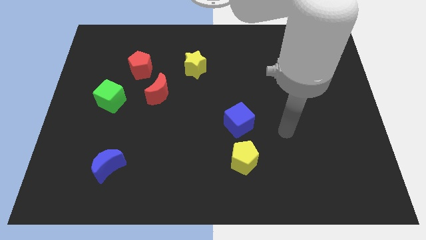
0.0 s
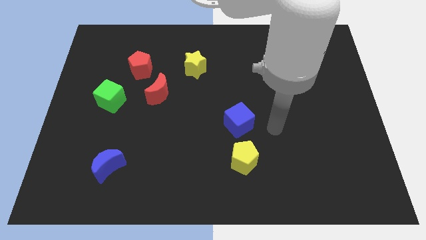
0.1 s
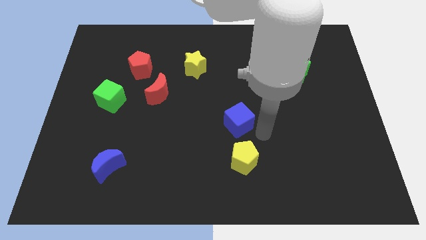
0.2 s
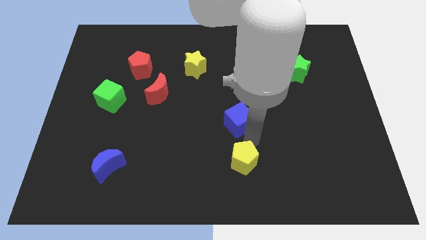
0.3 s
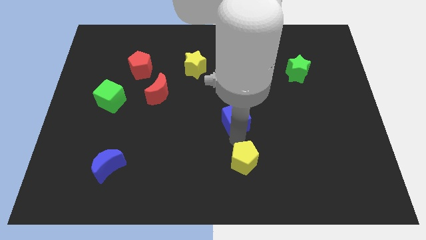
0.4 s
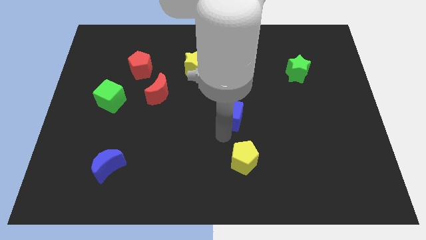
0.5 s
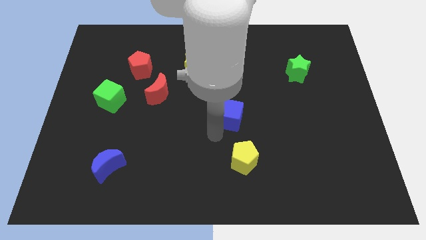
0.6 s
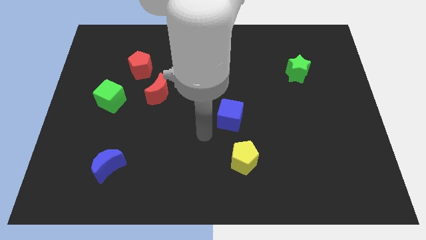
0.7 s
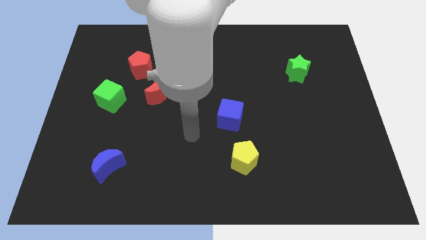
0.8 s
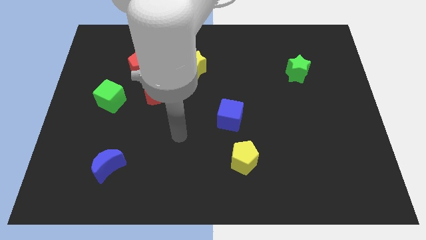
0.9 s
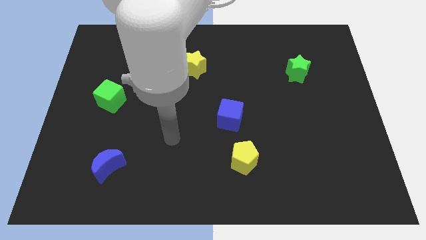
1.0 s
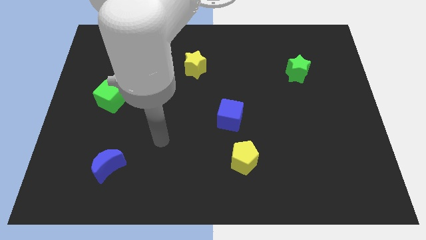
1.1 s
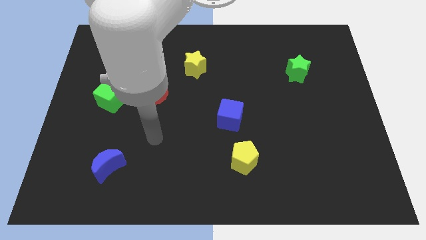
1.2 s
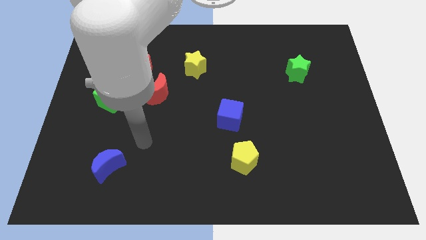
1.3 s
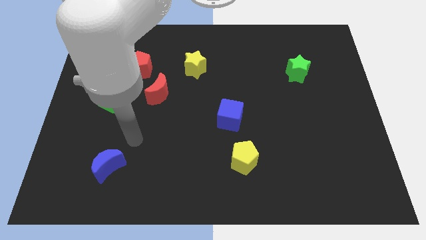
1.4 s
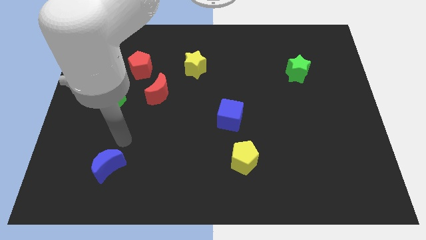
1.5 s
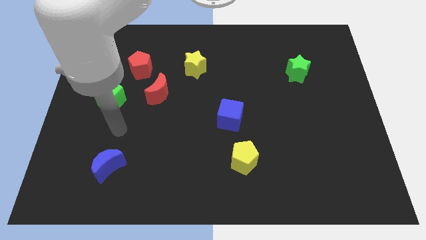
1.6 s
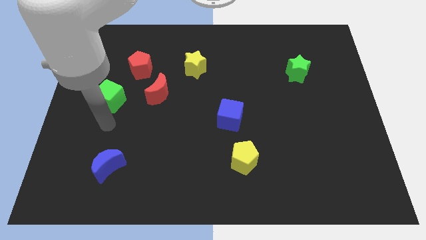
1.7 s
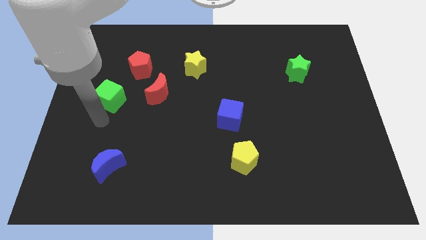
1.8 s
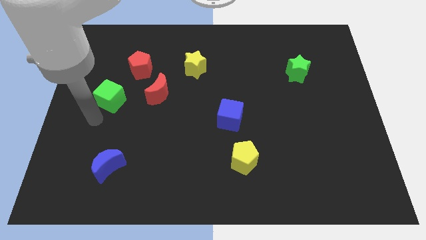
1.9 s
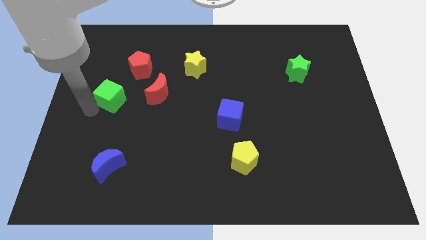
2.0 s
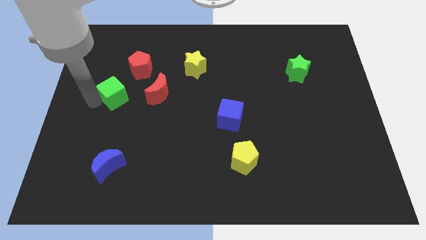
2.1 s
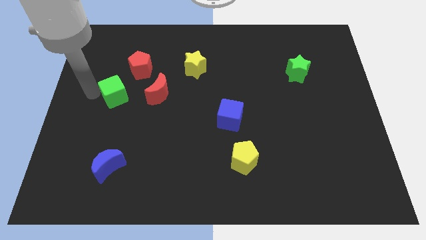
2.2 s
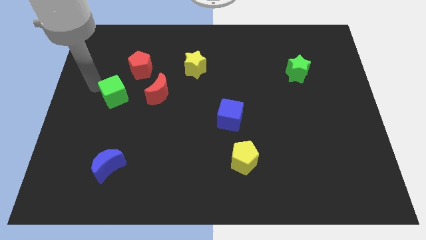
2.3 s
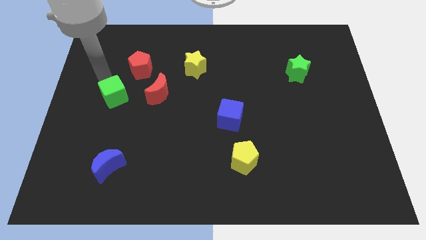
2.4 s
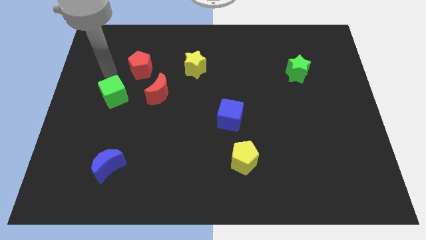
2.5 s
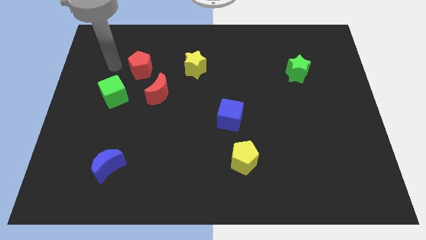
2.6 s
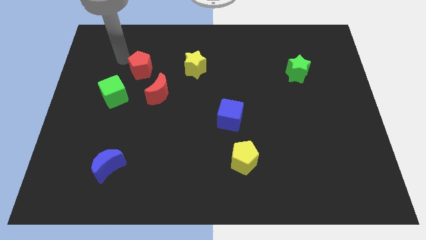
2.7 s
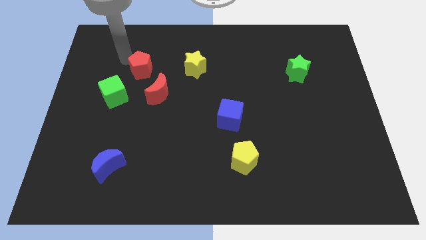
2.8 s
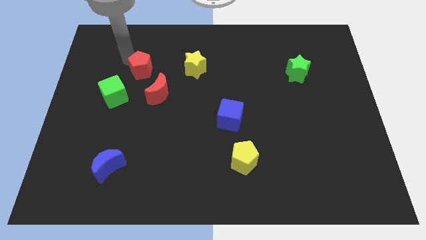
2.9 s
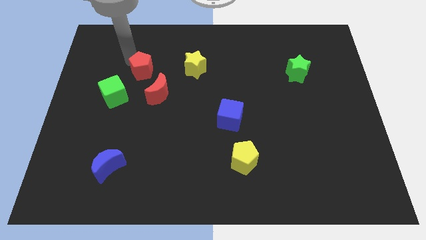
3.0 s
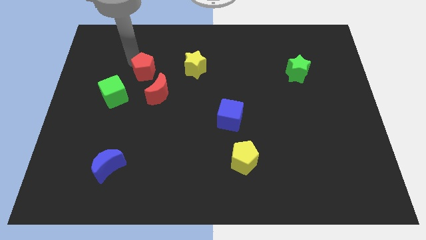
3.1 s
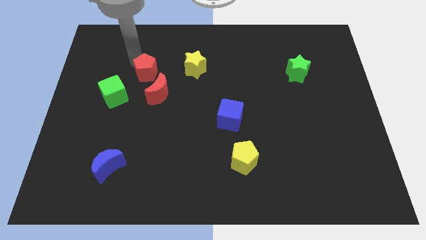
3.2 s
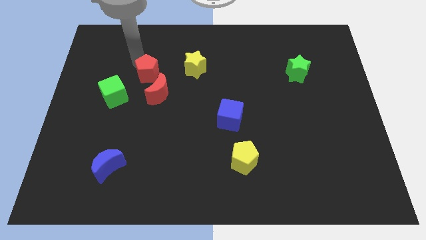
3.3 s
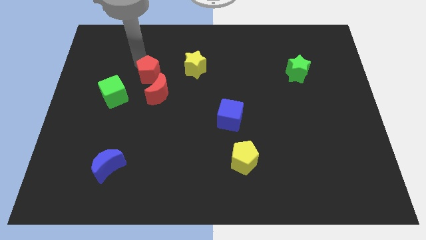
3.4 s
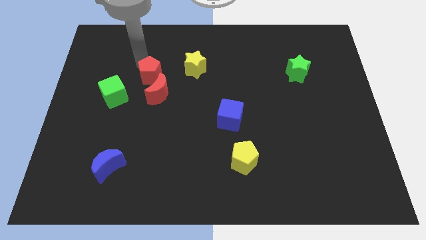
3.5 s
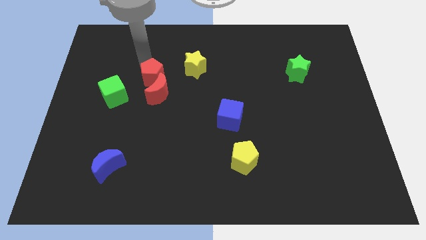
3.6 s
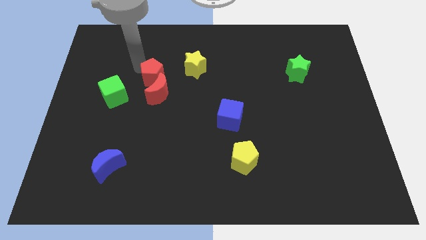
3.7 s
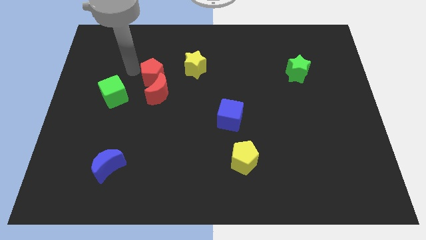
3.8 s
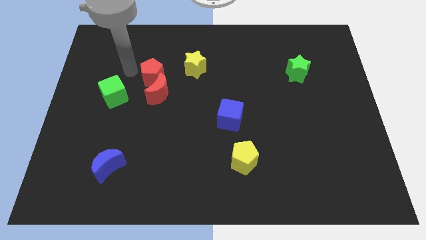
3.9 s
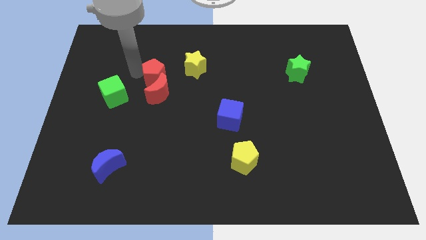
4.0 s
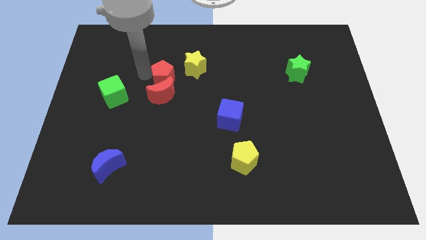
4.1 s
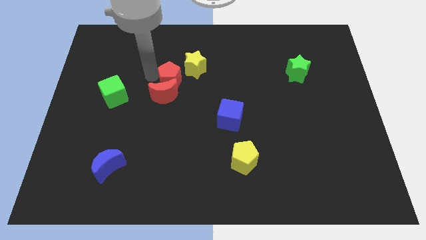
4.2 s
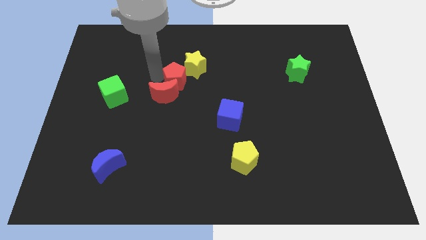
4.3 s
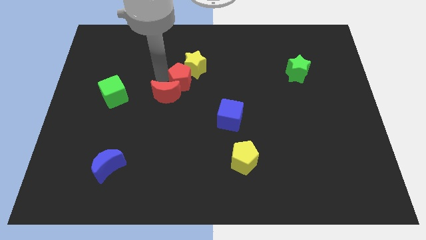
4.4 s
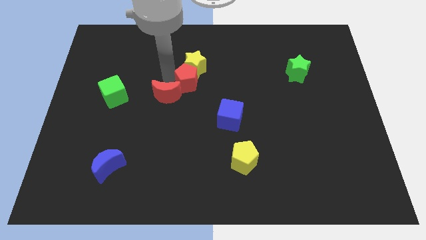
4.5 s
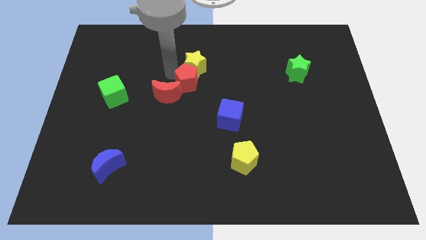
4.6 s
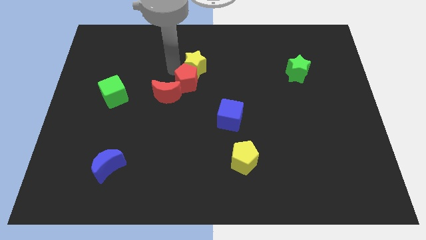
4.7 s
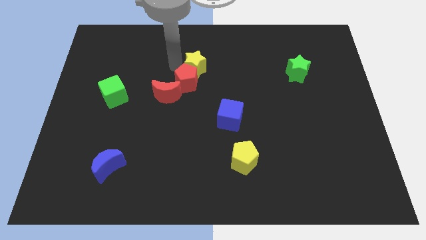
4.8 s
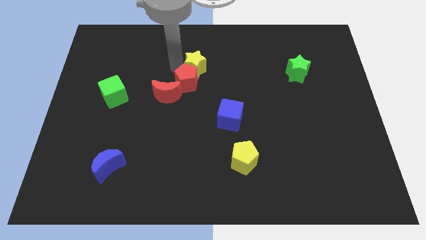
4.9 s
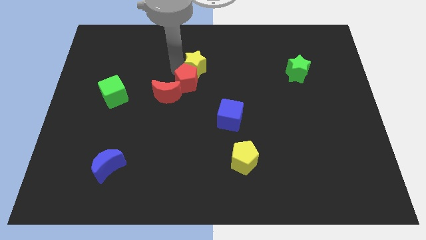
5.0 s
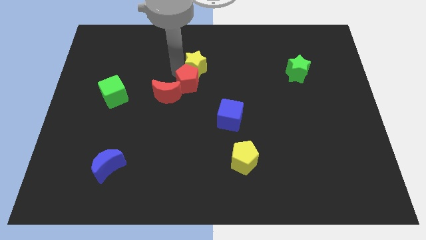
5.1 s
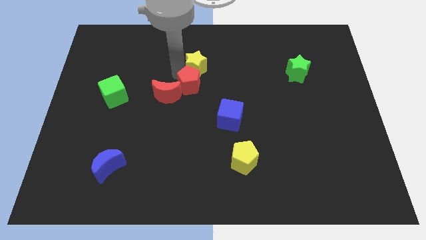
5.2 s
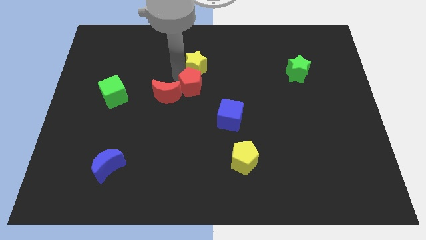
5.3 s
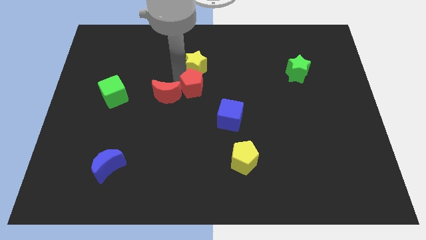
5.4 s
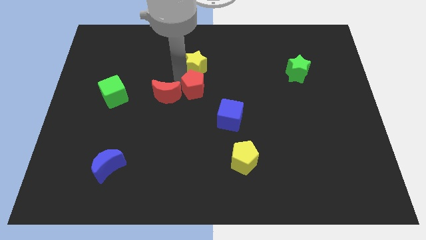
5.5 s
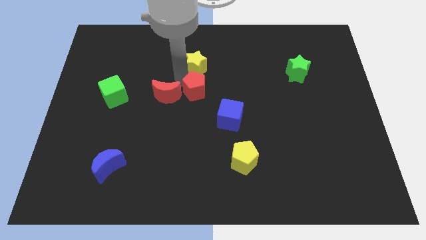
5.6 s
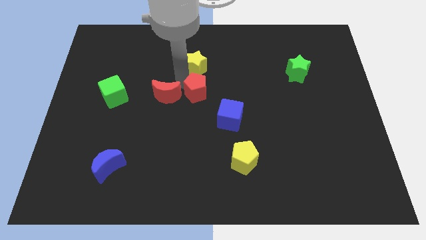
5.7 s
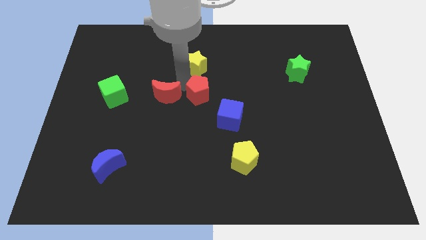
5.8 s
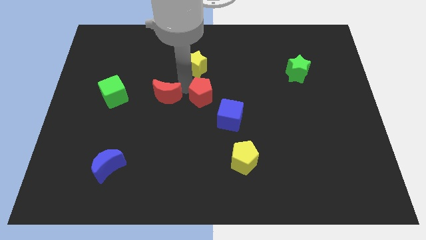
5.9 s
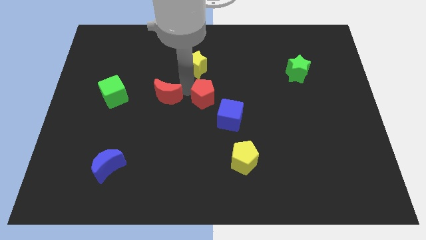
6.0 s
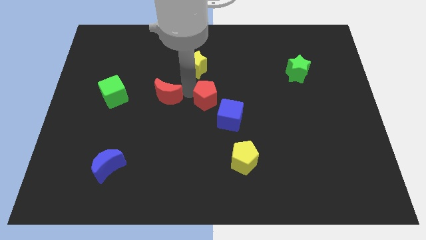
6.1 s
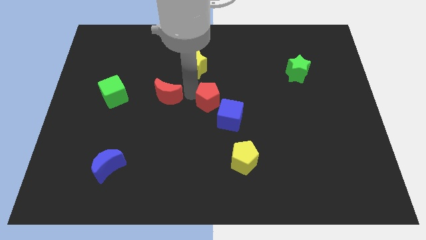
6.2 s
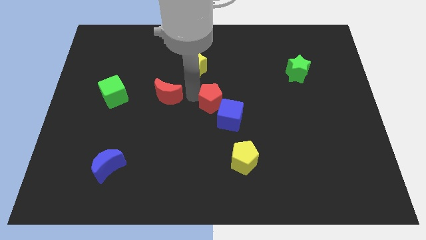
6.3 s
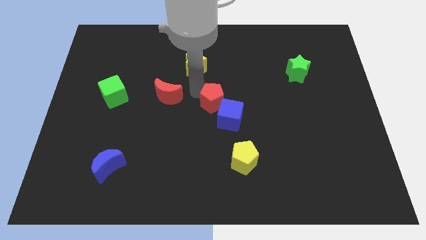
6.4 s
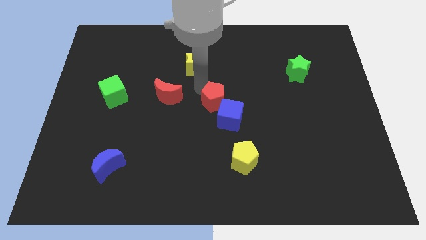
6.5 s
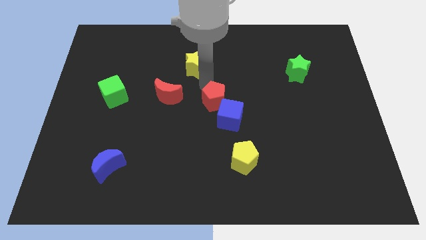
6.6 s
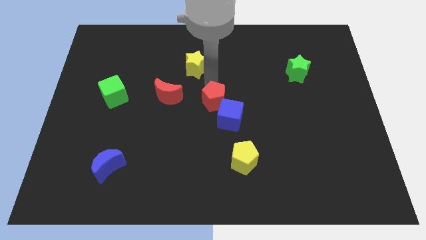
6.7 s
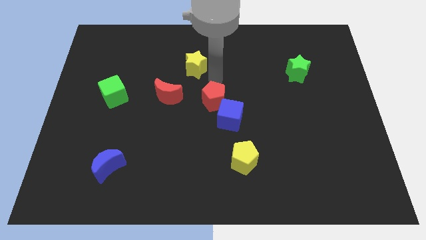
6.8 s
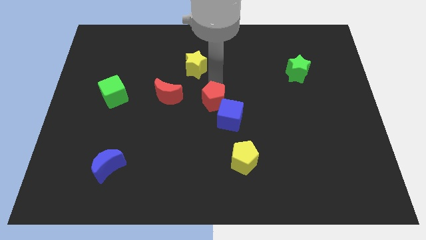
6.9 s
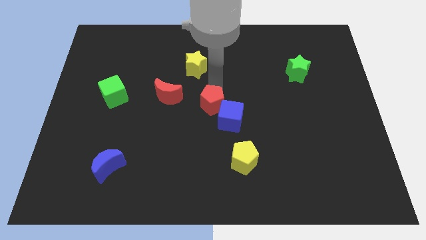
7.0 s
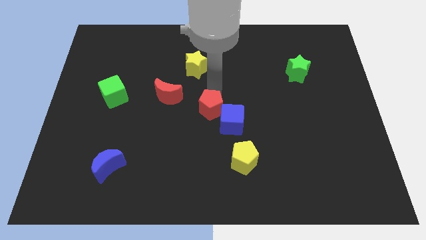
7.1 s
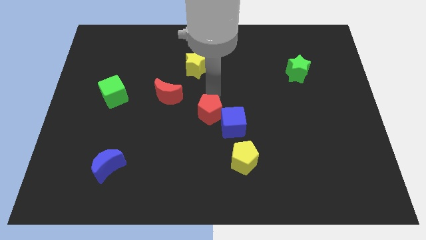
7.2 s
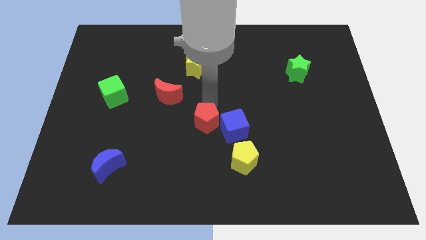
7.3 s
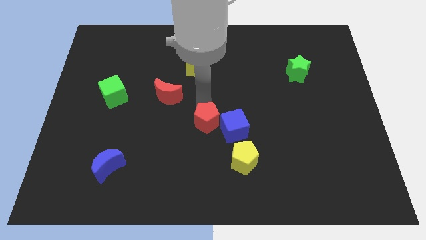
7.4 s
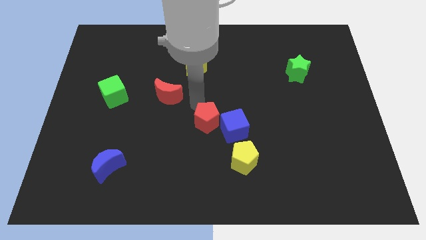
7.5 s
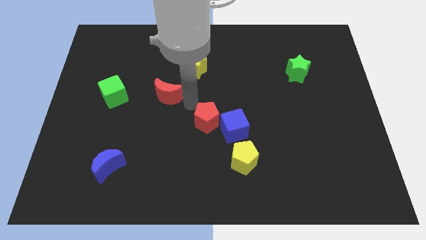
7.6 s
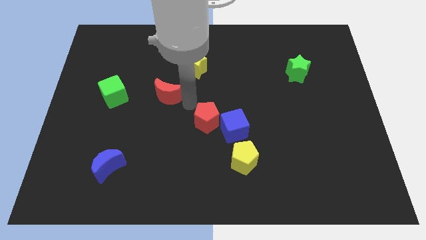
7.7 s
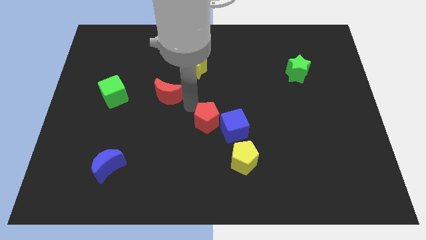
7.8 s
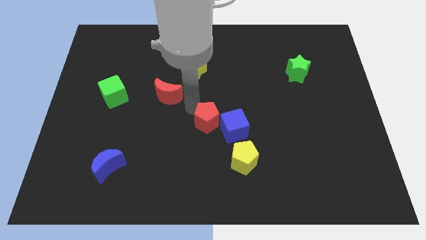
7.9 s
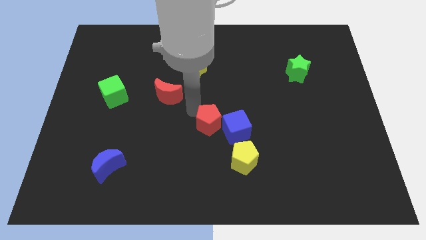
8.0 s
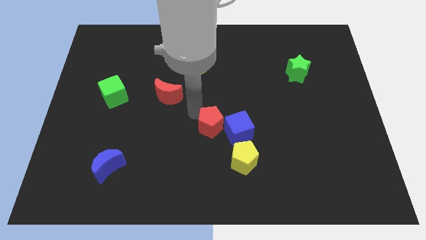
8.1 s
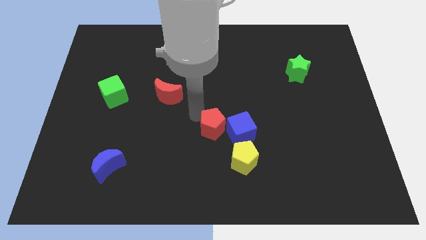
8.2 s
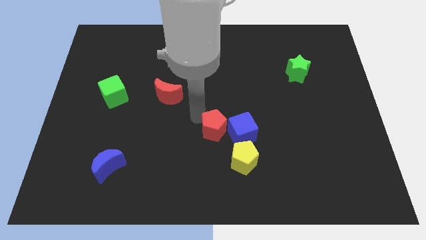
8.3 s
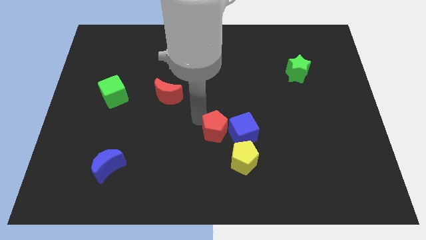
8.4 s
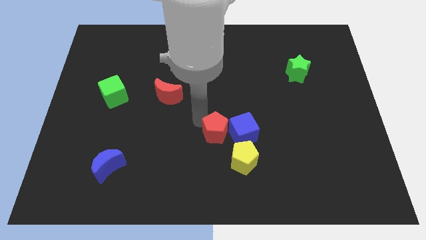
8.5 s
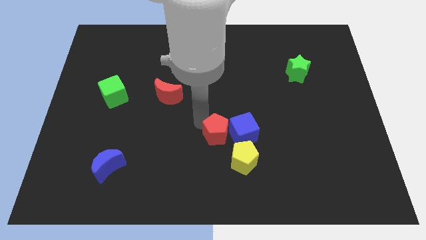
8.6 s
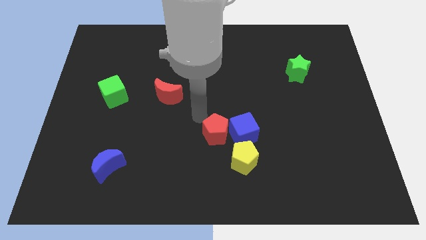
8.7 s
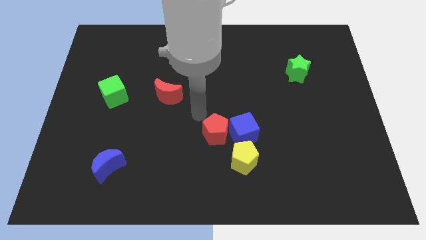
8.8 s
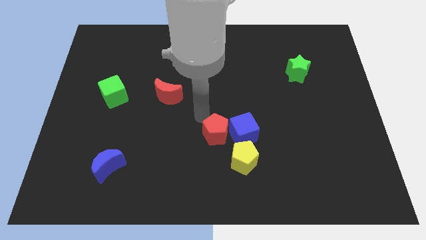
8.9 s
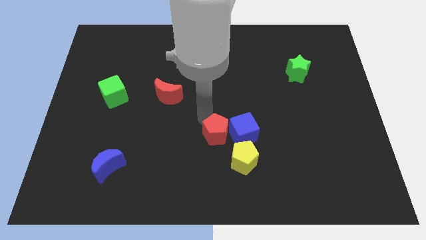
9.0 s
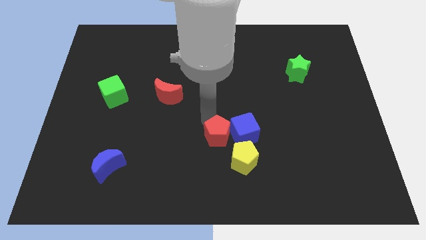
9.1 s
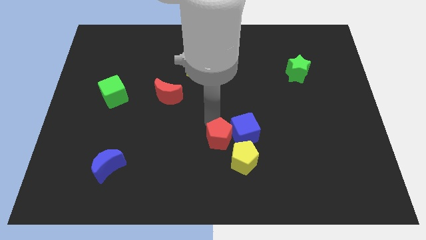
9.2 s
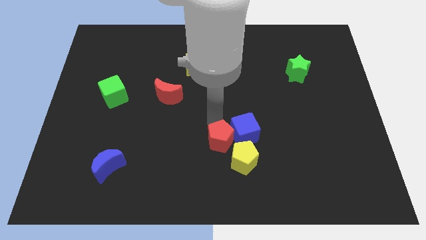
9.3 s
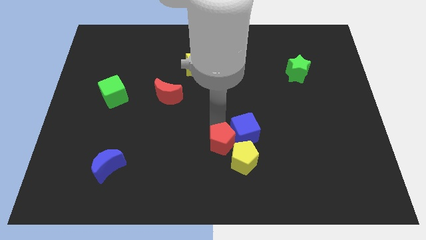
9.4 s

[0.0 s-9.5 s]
push the red pentagon close to the yellow pentagon
